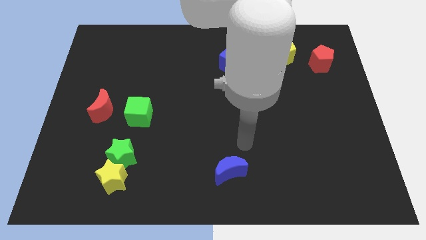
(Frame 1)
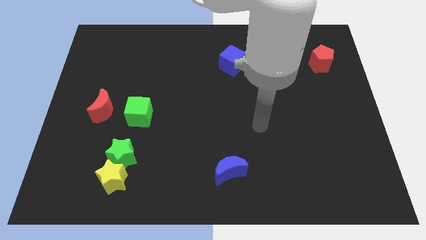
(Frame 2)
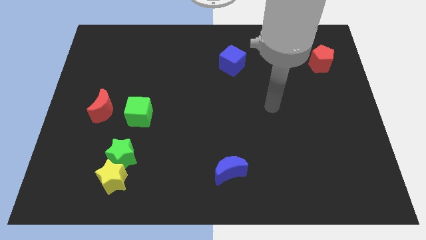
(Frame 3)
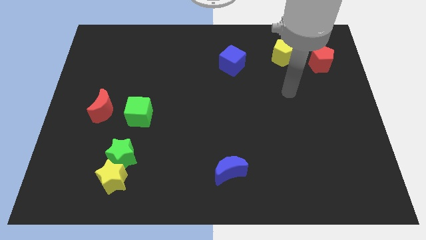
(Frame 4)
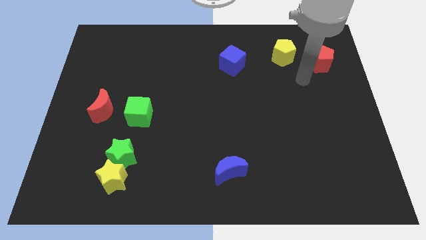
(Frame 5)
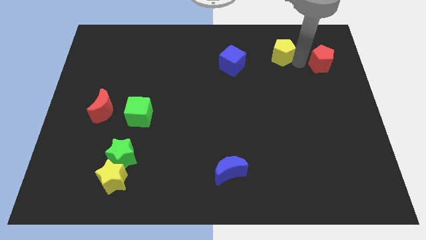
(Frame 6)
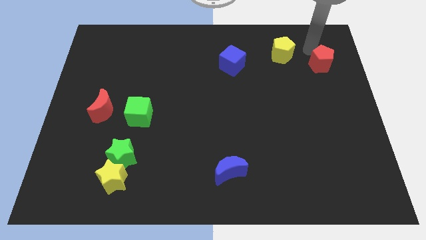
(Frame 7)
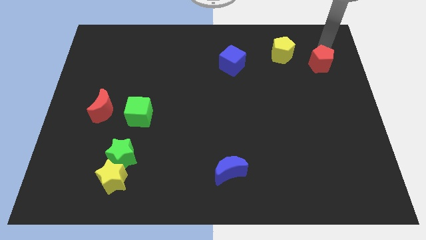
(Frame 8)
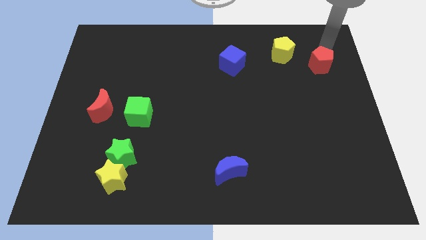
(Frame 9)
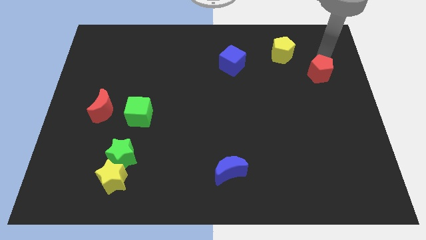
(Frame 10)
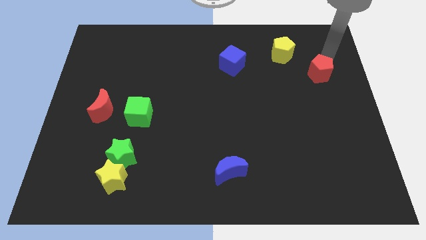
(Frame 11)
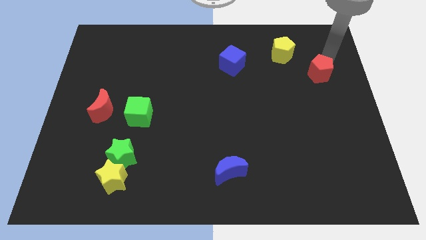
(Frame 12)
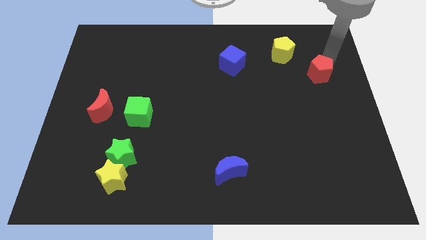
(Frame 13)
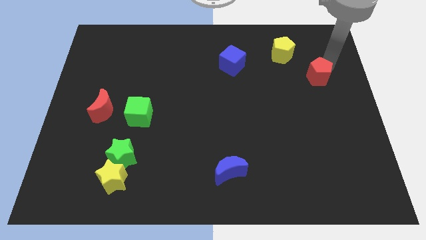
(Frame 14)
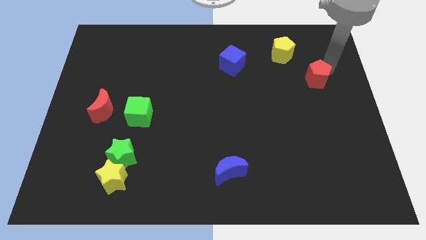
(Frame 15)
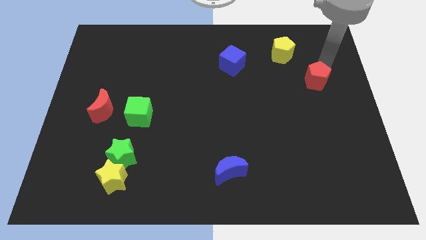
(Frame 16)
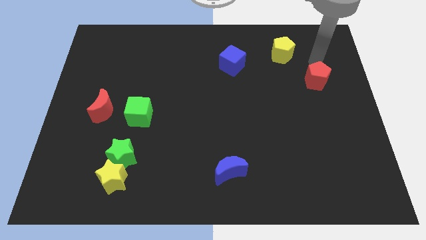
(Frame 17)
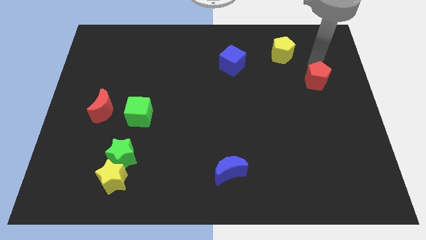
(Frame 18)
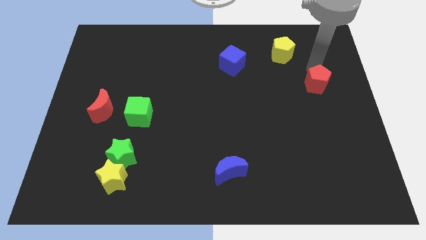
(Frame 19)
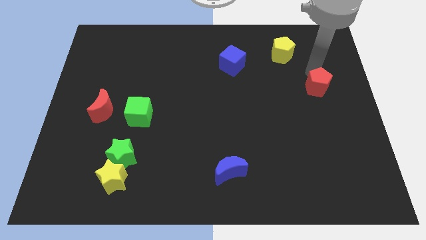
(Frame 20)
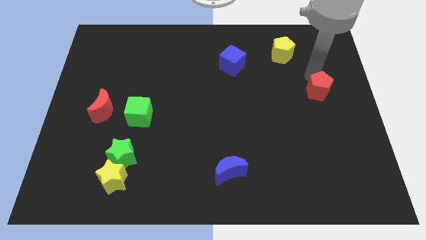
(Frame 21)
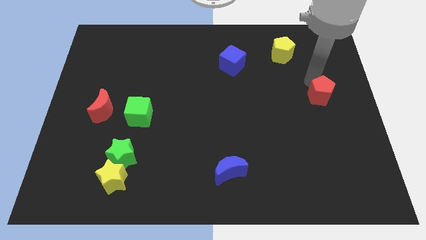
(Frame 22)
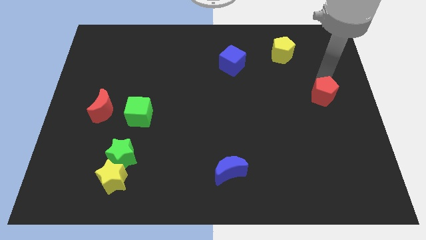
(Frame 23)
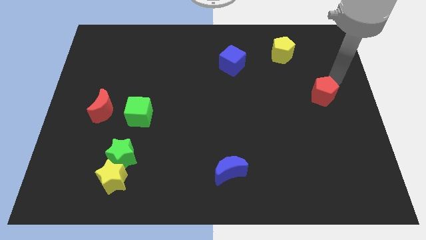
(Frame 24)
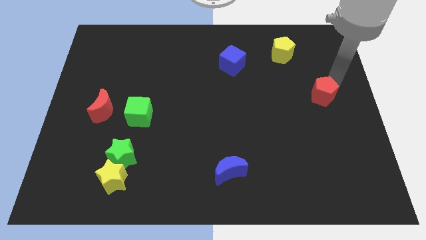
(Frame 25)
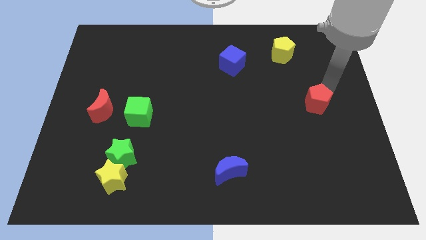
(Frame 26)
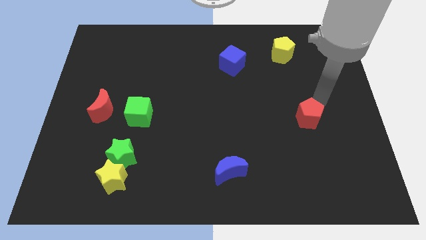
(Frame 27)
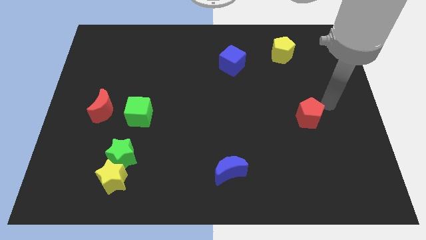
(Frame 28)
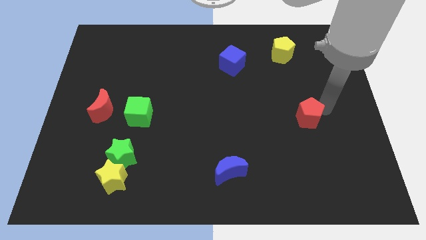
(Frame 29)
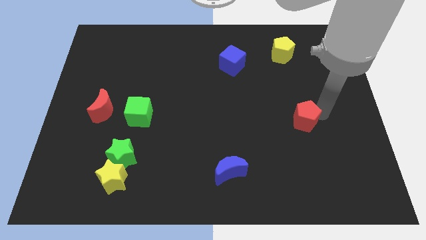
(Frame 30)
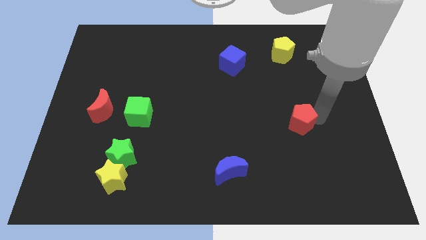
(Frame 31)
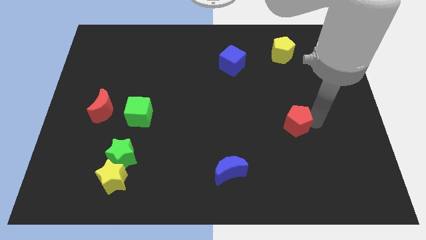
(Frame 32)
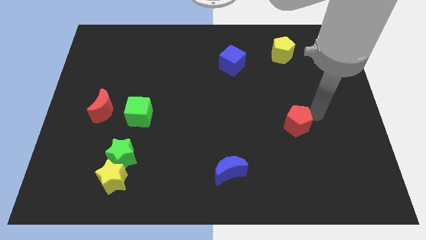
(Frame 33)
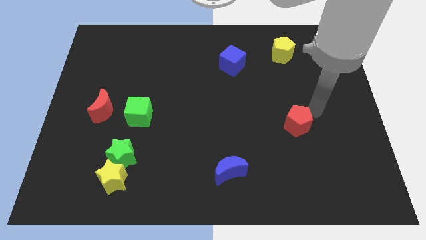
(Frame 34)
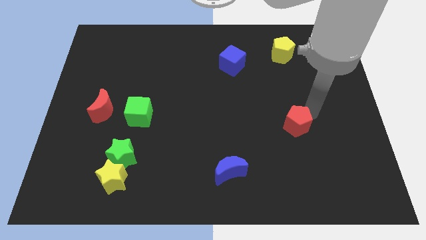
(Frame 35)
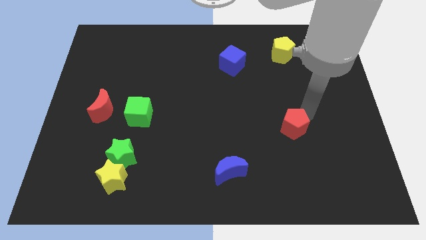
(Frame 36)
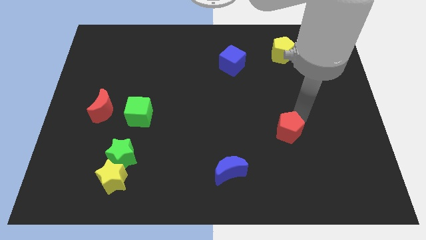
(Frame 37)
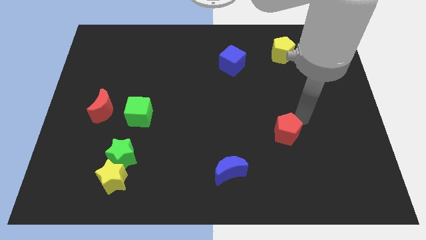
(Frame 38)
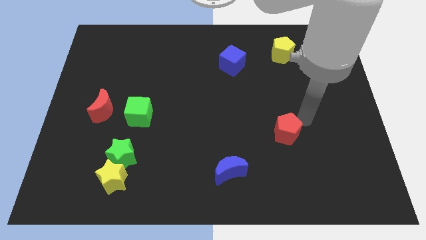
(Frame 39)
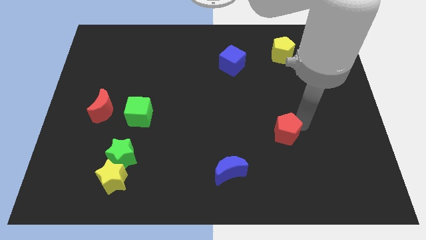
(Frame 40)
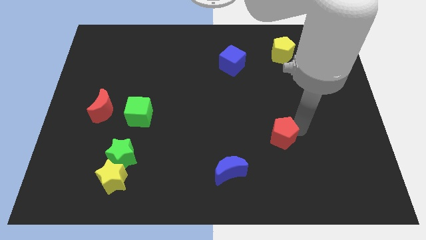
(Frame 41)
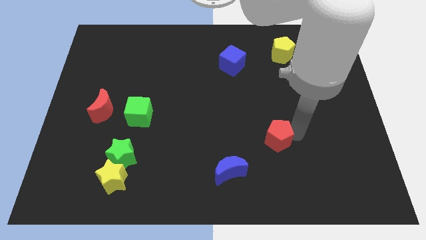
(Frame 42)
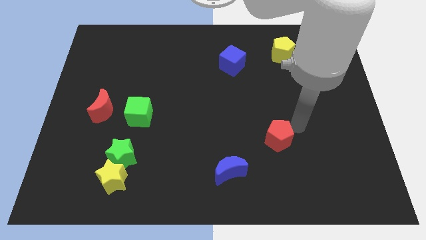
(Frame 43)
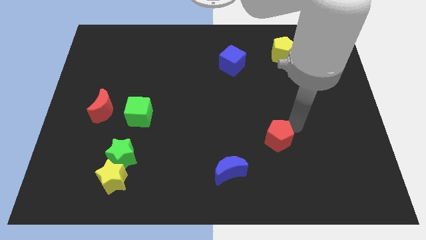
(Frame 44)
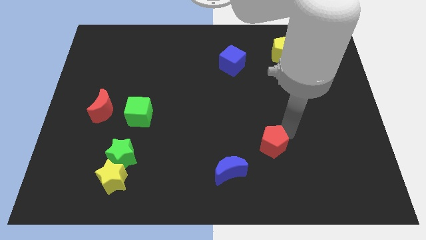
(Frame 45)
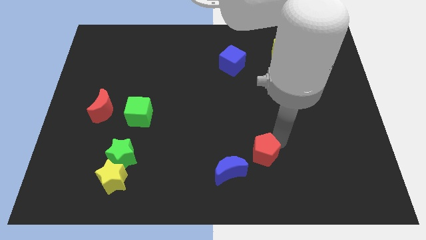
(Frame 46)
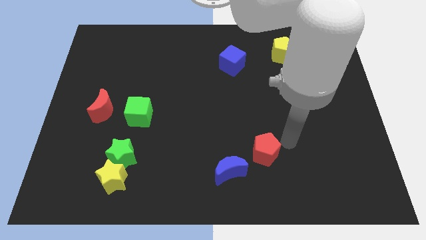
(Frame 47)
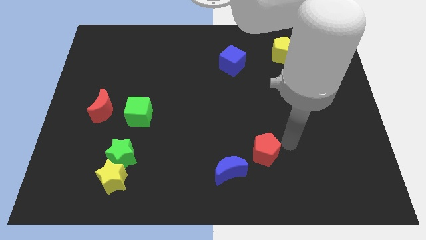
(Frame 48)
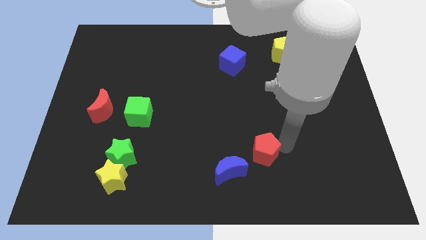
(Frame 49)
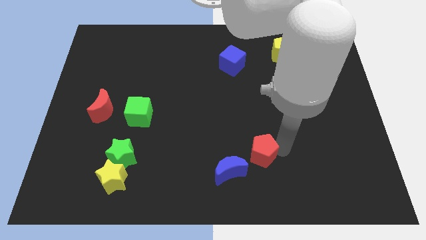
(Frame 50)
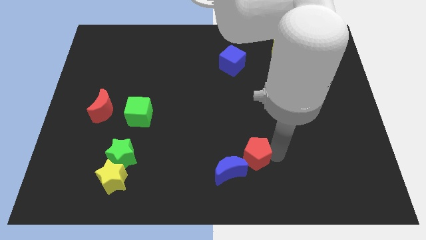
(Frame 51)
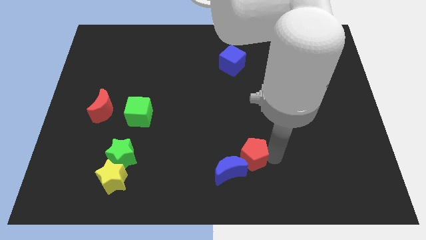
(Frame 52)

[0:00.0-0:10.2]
push the red pentagon towards the blue moon

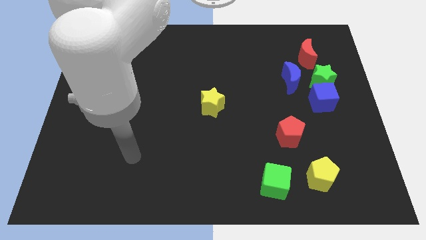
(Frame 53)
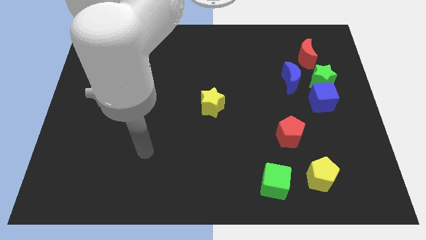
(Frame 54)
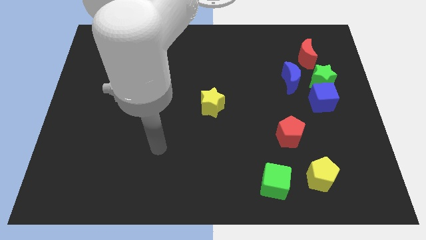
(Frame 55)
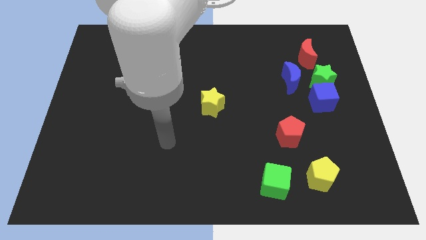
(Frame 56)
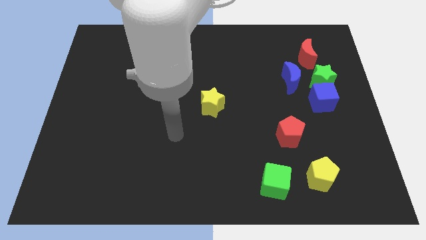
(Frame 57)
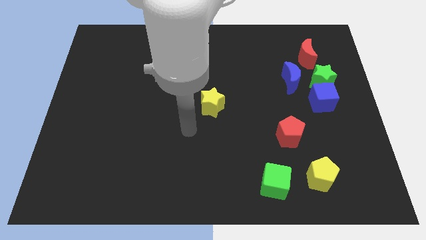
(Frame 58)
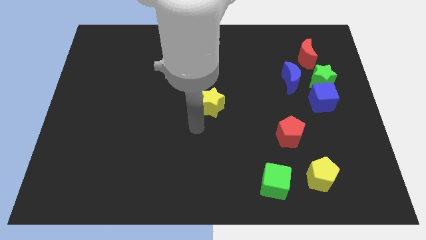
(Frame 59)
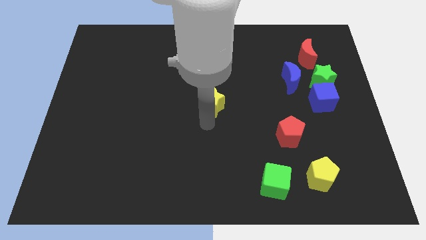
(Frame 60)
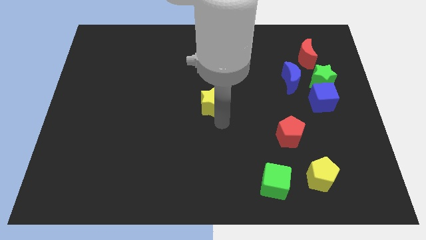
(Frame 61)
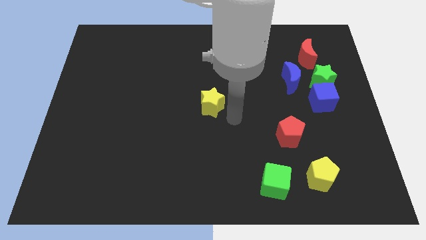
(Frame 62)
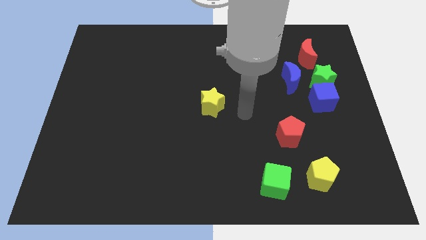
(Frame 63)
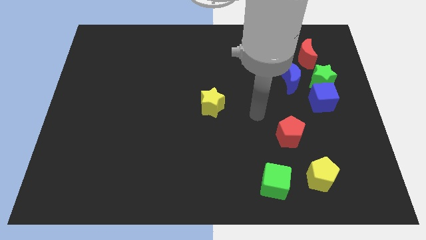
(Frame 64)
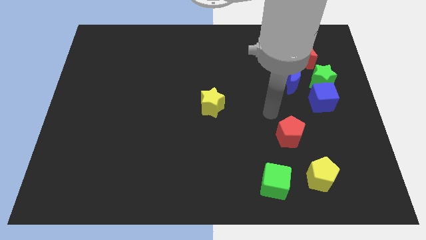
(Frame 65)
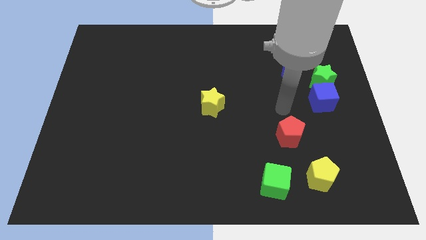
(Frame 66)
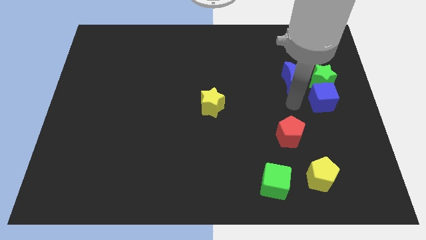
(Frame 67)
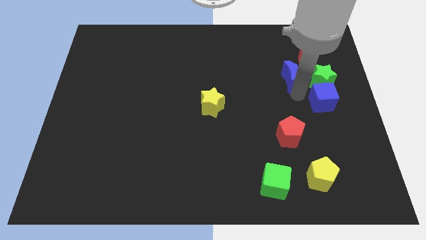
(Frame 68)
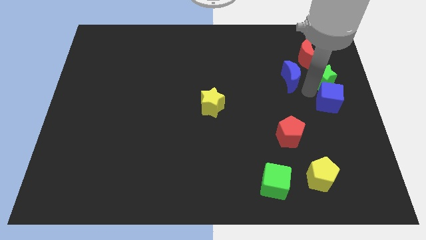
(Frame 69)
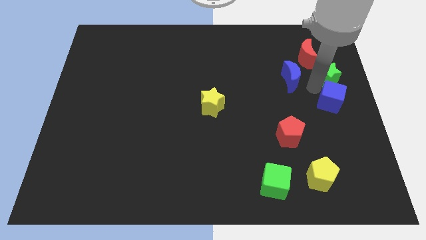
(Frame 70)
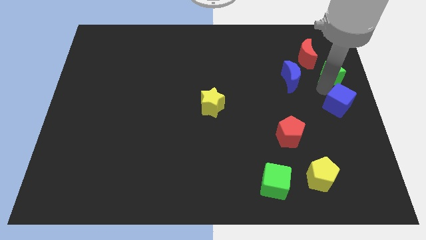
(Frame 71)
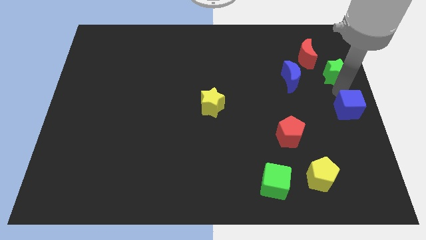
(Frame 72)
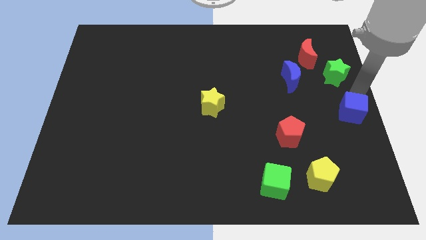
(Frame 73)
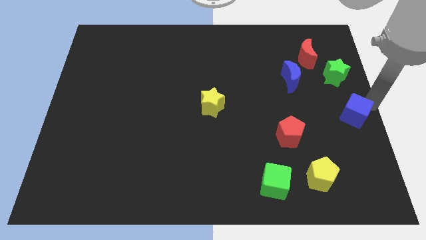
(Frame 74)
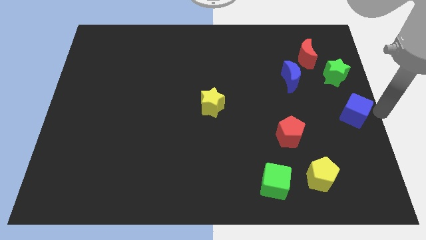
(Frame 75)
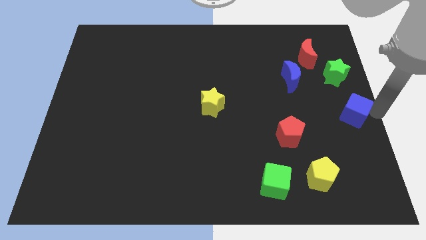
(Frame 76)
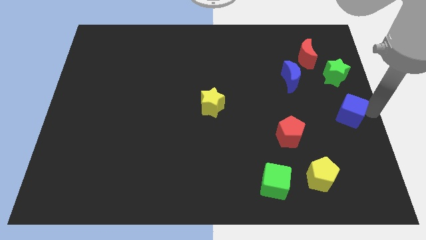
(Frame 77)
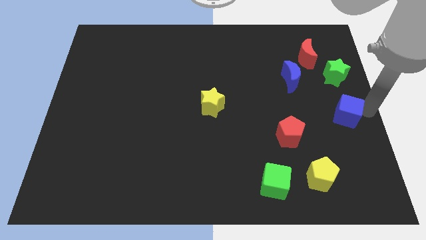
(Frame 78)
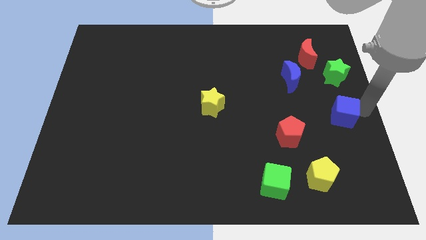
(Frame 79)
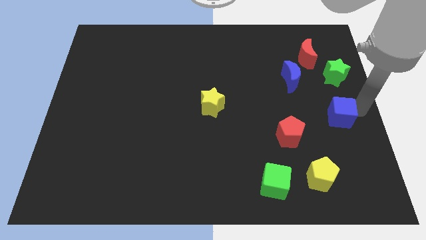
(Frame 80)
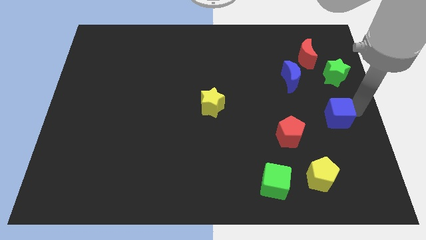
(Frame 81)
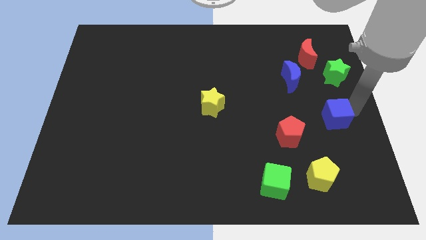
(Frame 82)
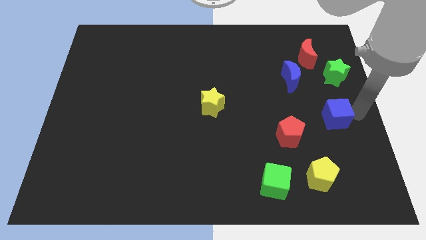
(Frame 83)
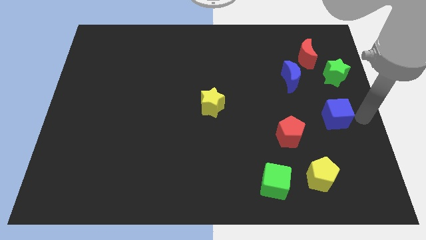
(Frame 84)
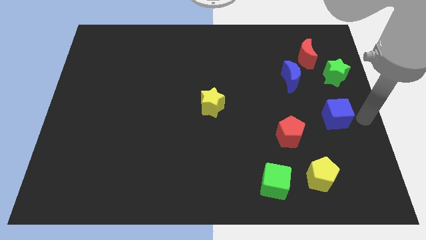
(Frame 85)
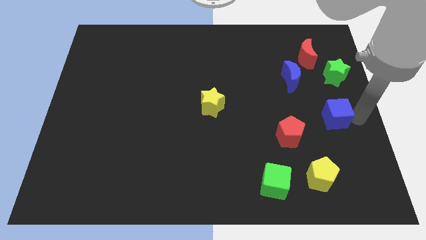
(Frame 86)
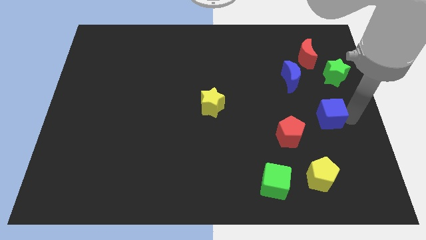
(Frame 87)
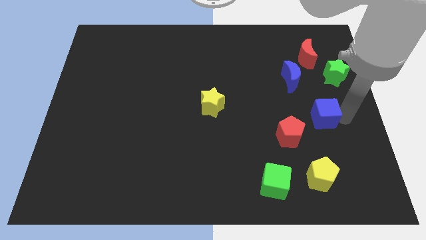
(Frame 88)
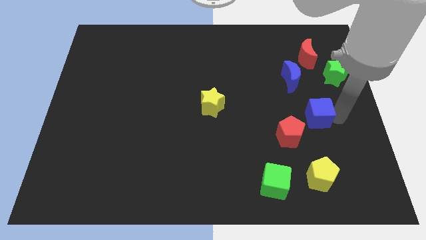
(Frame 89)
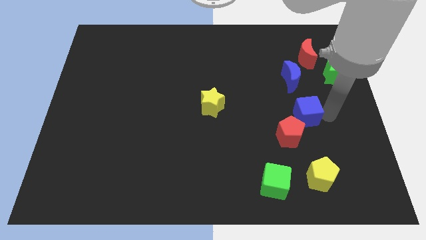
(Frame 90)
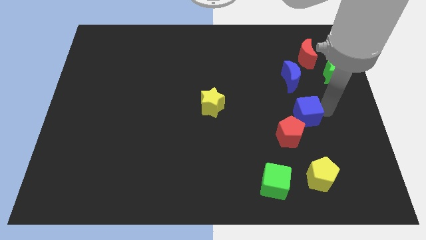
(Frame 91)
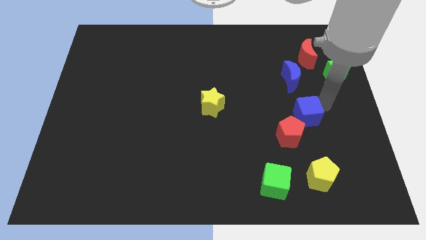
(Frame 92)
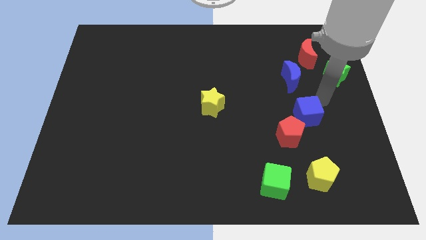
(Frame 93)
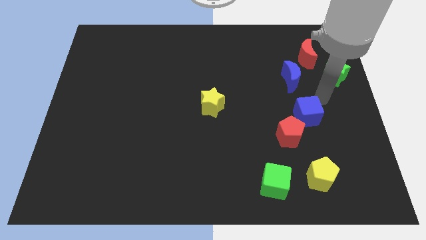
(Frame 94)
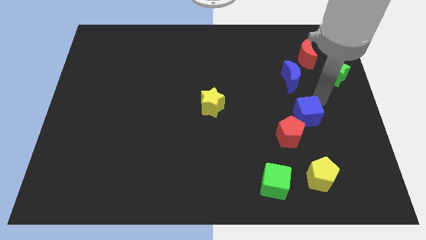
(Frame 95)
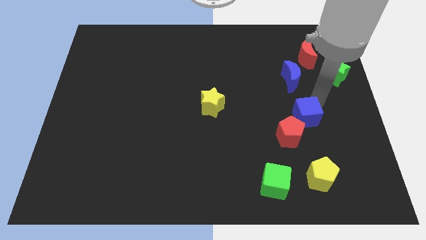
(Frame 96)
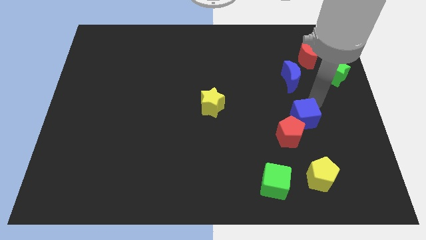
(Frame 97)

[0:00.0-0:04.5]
slide the blue cube close to the red pentagon
